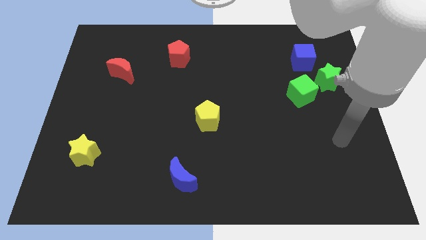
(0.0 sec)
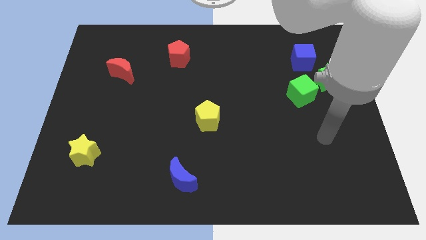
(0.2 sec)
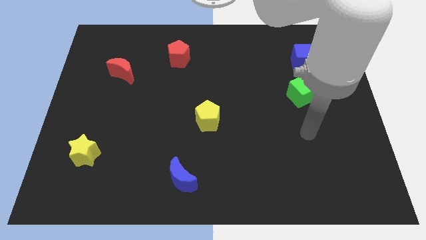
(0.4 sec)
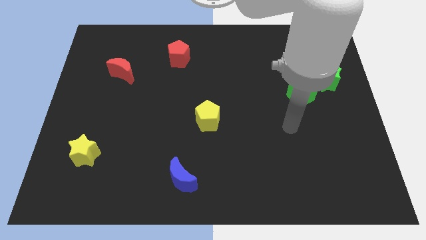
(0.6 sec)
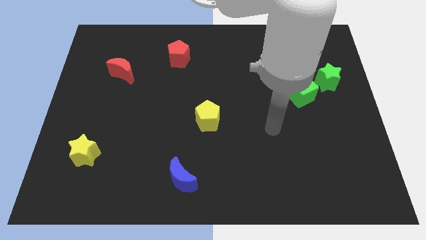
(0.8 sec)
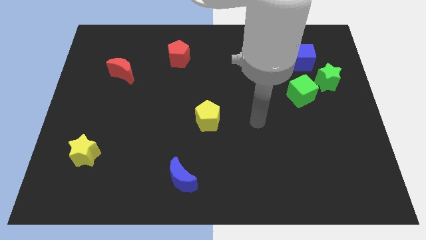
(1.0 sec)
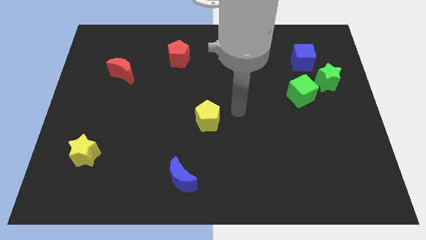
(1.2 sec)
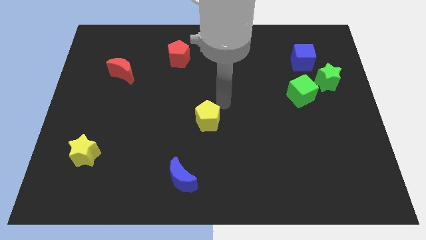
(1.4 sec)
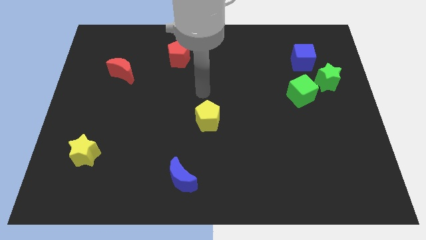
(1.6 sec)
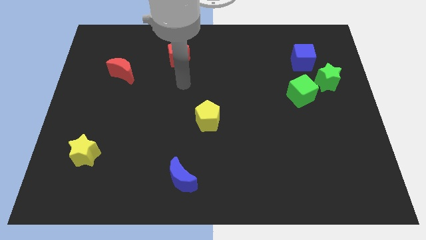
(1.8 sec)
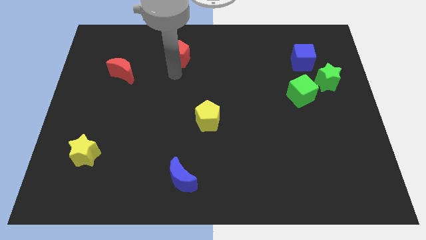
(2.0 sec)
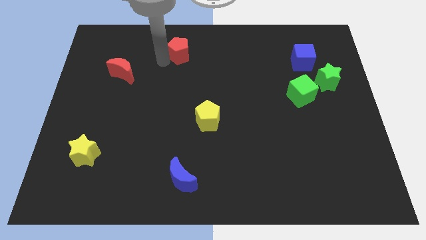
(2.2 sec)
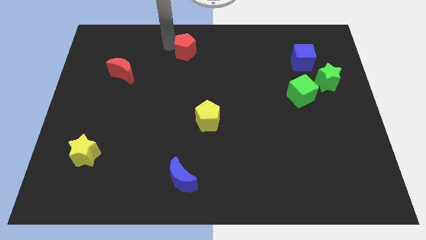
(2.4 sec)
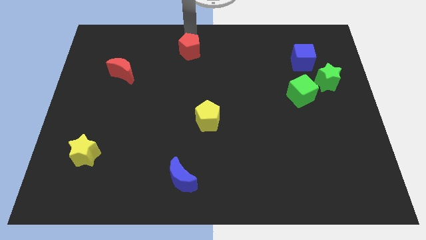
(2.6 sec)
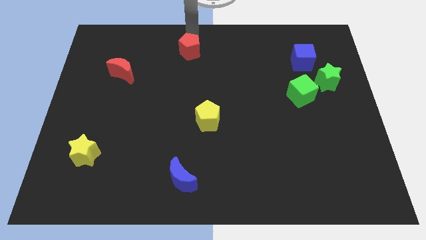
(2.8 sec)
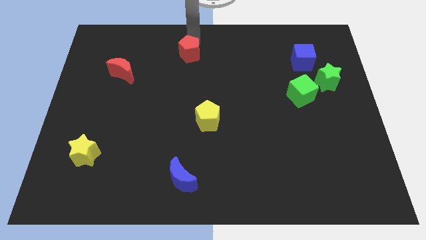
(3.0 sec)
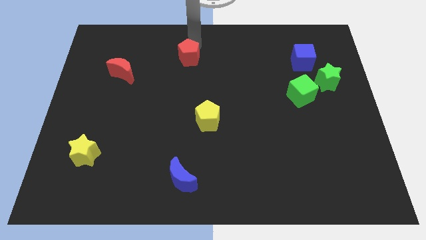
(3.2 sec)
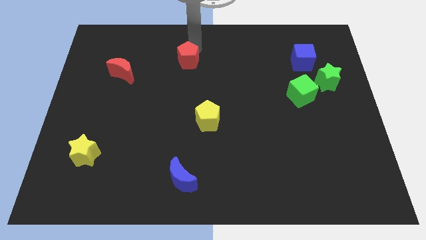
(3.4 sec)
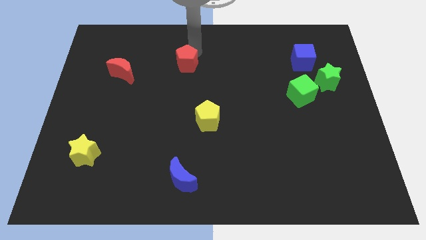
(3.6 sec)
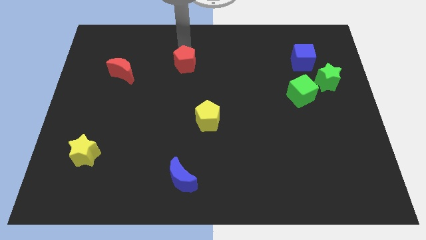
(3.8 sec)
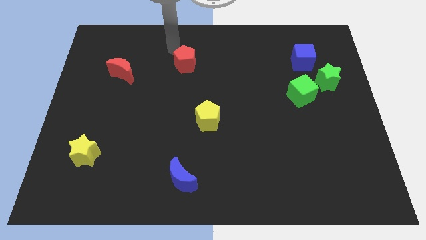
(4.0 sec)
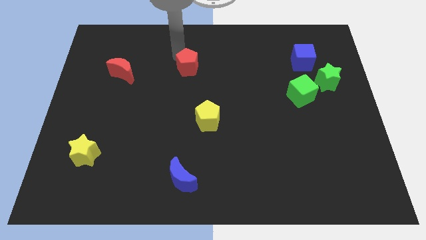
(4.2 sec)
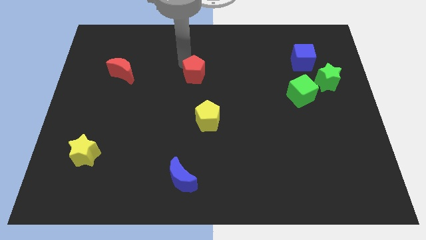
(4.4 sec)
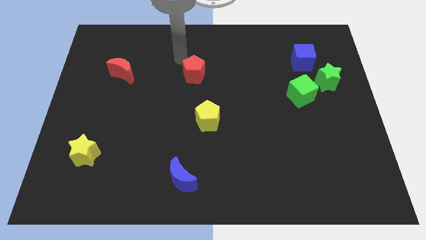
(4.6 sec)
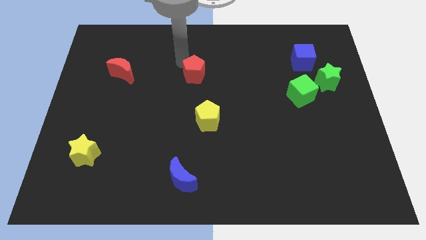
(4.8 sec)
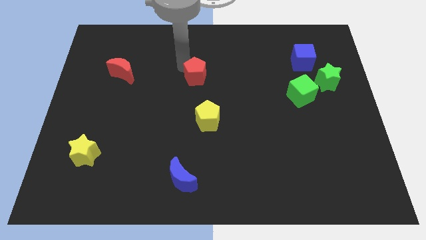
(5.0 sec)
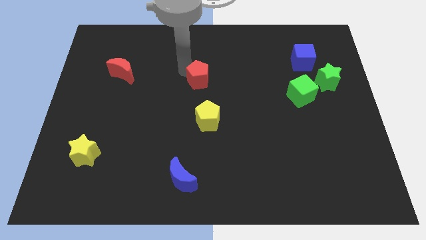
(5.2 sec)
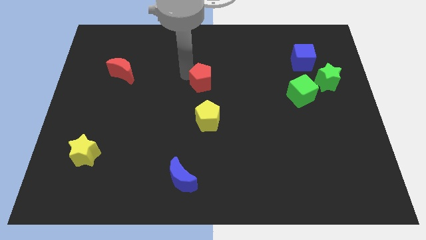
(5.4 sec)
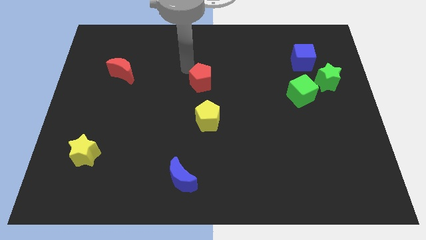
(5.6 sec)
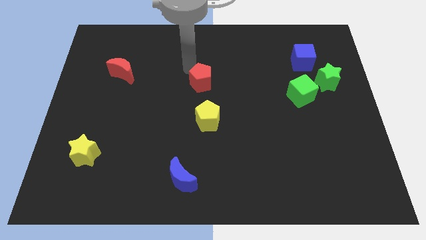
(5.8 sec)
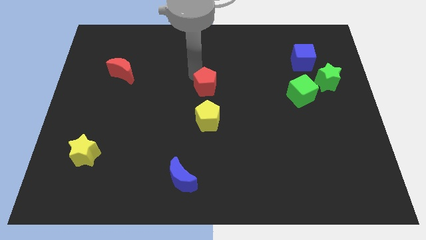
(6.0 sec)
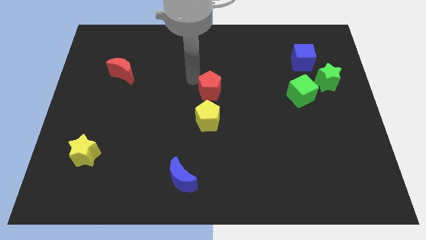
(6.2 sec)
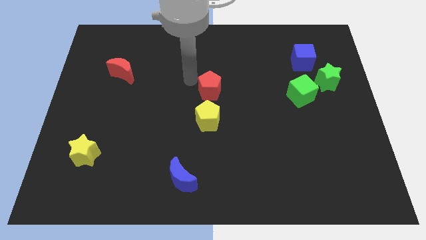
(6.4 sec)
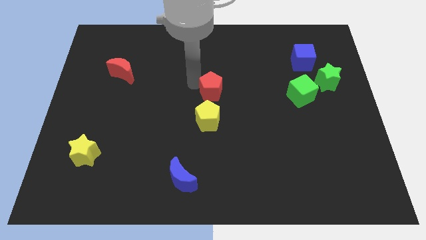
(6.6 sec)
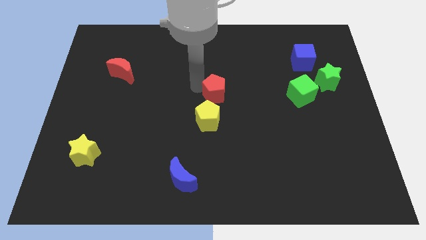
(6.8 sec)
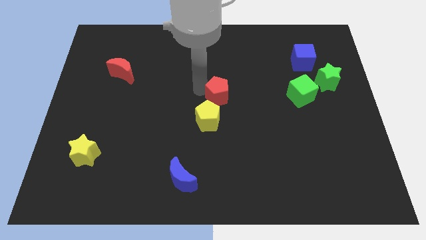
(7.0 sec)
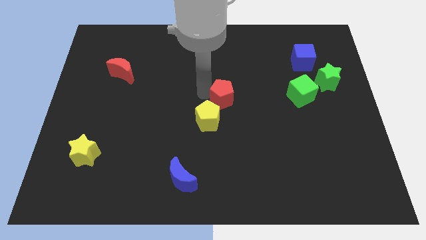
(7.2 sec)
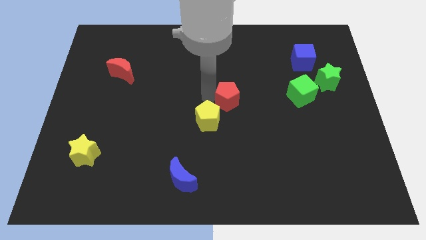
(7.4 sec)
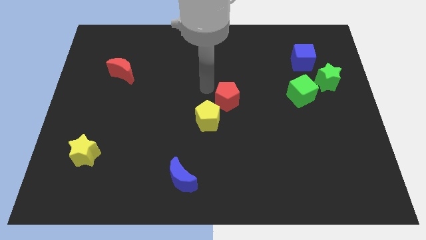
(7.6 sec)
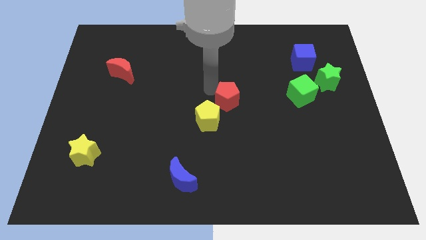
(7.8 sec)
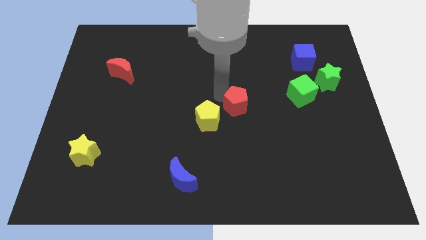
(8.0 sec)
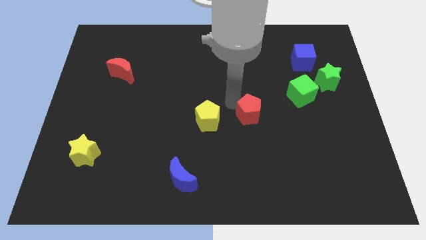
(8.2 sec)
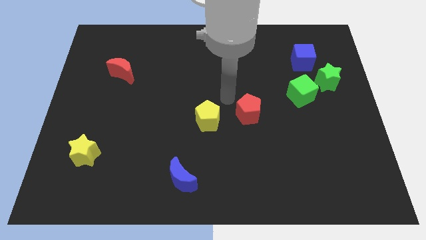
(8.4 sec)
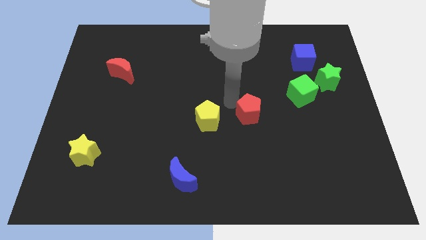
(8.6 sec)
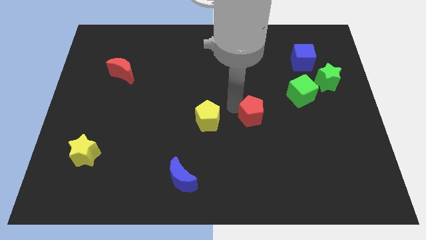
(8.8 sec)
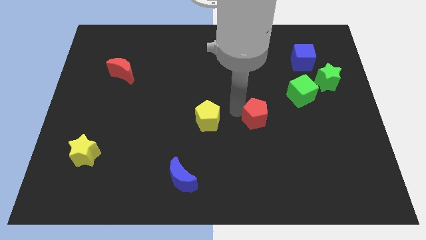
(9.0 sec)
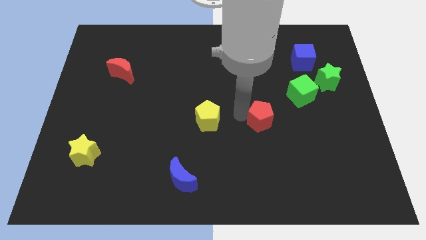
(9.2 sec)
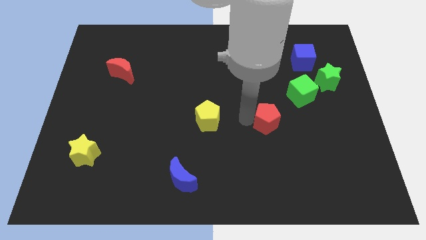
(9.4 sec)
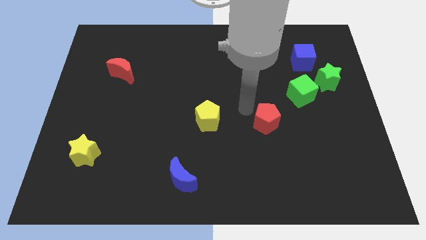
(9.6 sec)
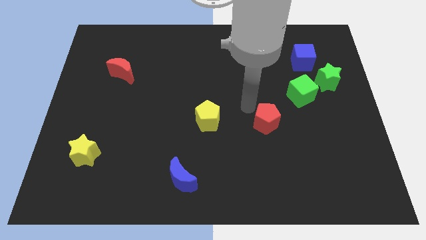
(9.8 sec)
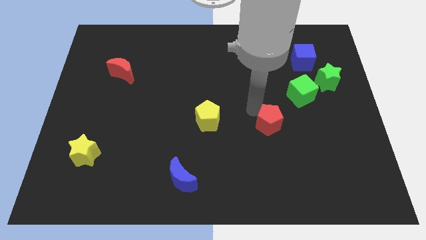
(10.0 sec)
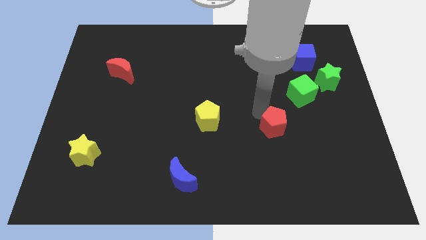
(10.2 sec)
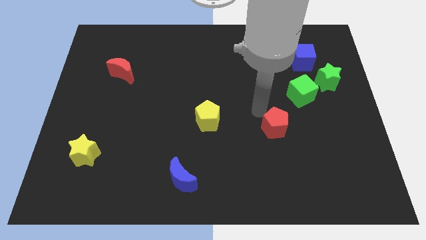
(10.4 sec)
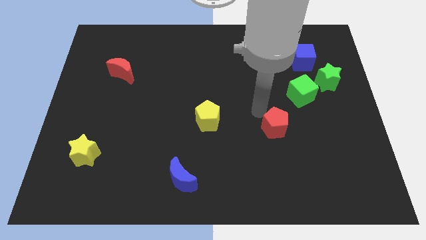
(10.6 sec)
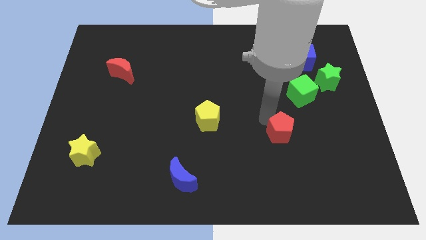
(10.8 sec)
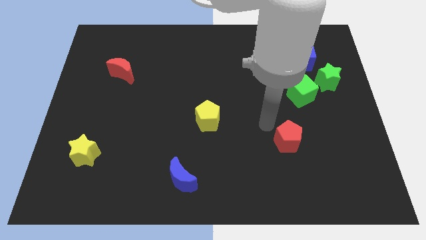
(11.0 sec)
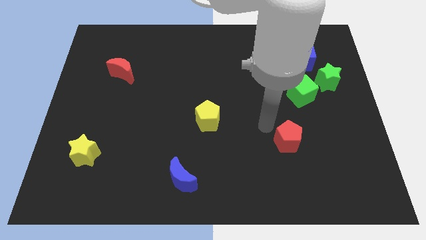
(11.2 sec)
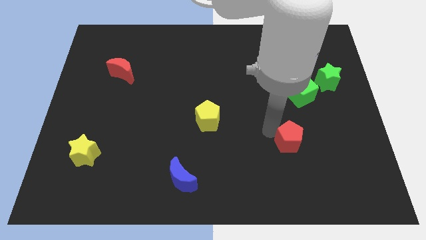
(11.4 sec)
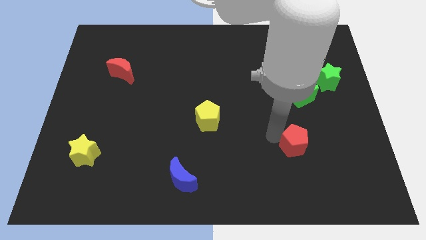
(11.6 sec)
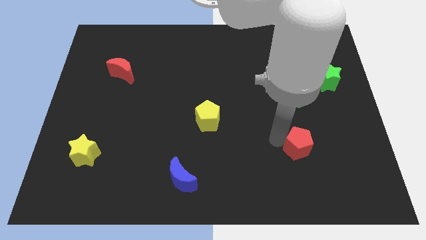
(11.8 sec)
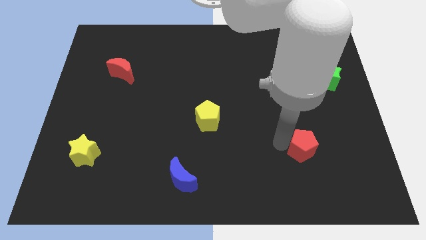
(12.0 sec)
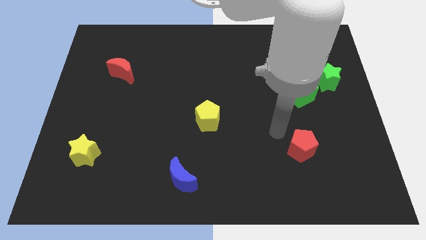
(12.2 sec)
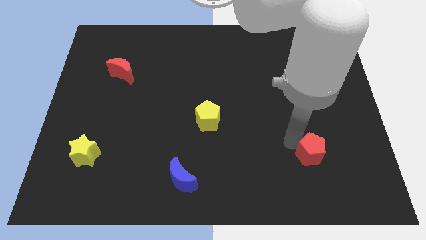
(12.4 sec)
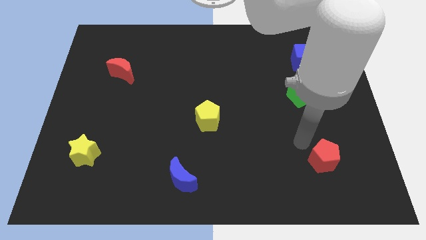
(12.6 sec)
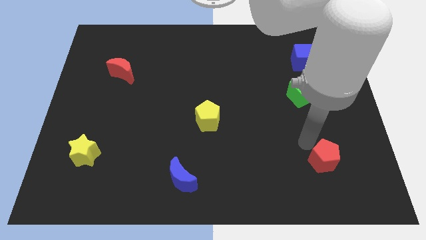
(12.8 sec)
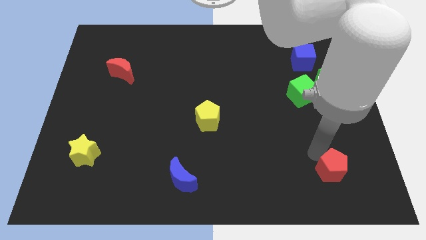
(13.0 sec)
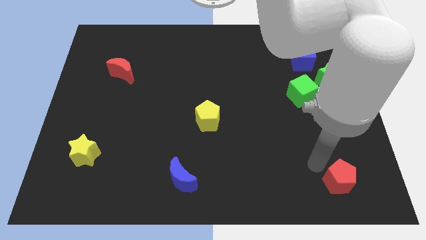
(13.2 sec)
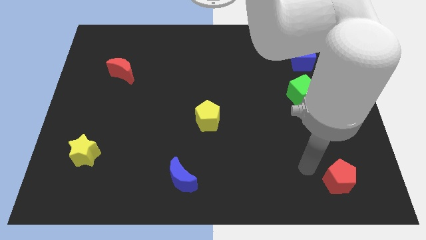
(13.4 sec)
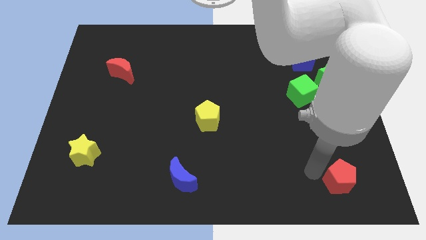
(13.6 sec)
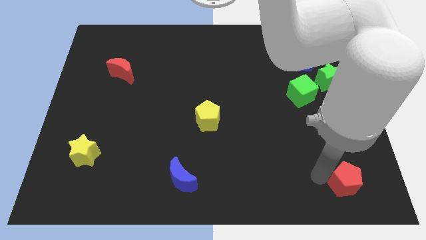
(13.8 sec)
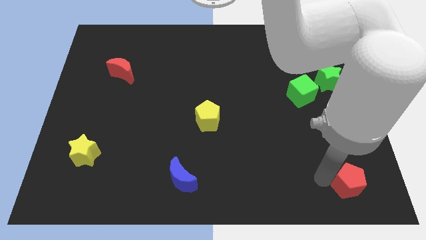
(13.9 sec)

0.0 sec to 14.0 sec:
push the red pentagon to the bottom right of the board
